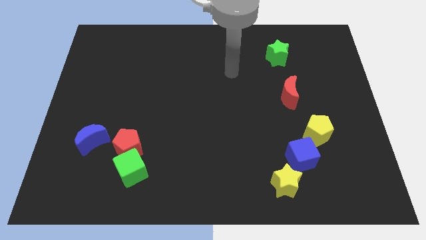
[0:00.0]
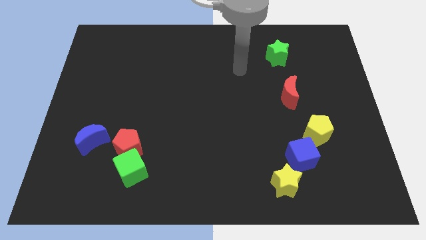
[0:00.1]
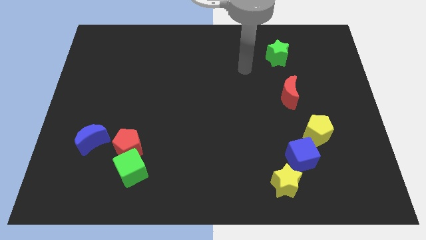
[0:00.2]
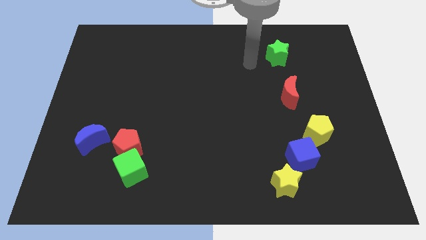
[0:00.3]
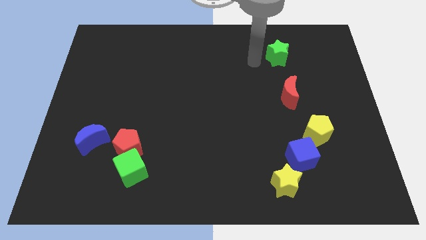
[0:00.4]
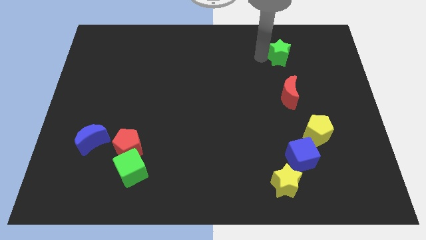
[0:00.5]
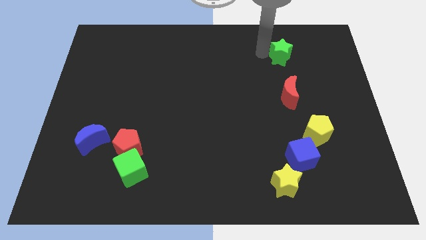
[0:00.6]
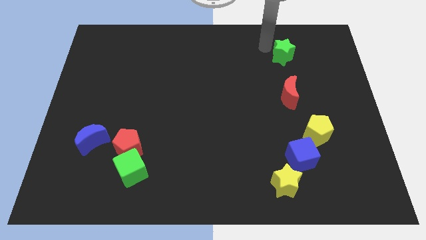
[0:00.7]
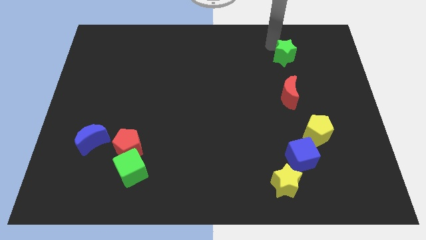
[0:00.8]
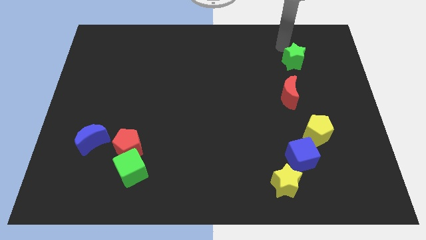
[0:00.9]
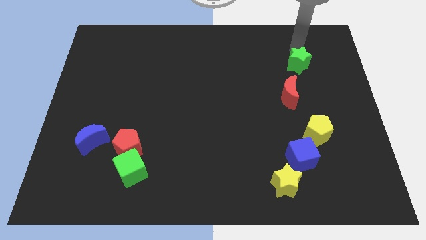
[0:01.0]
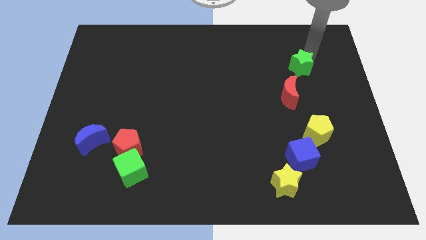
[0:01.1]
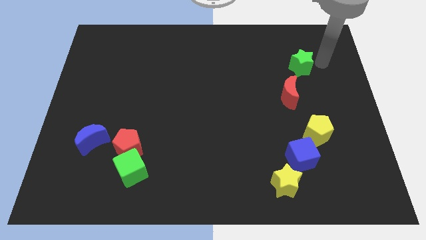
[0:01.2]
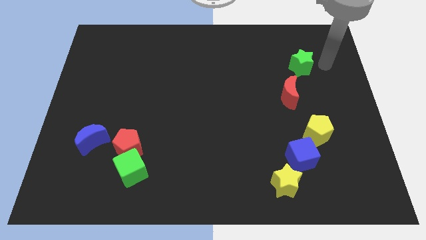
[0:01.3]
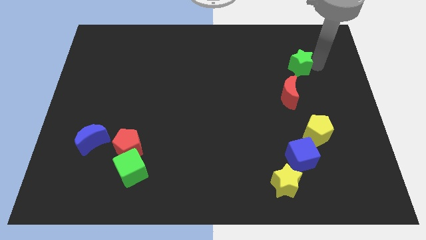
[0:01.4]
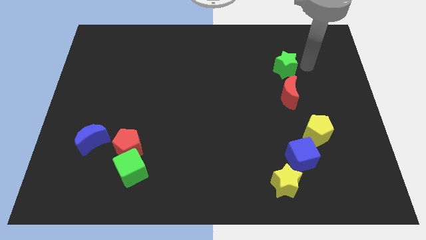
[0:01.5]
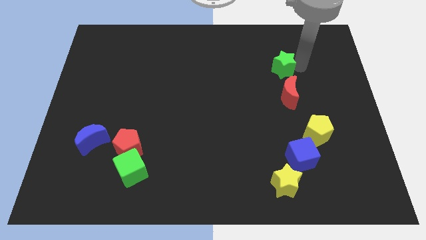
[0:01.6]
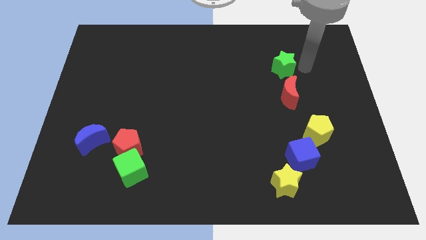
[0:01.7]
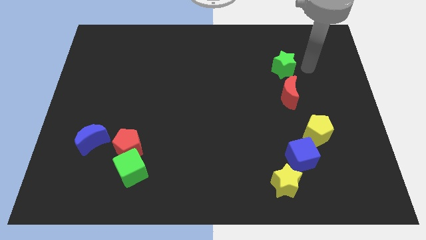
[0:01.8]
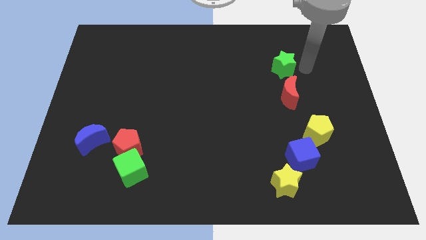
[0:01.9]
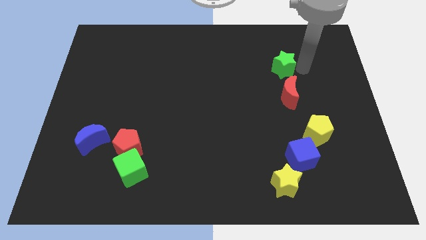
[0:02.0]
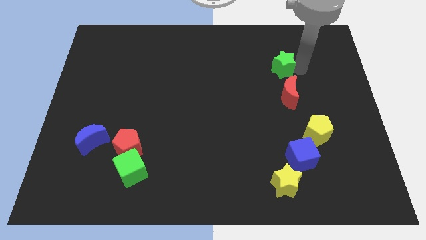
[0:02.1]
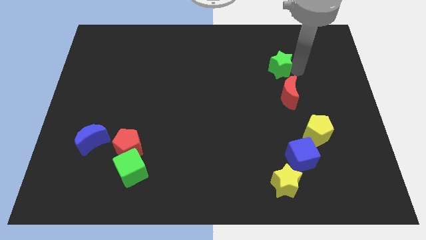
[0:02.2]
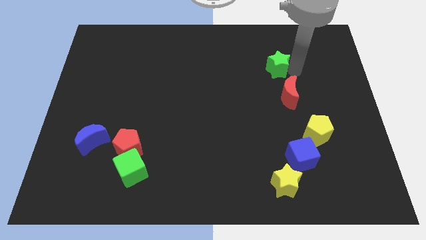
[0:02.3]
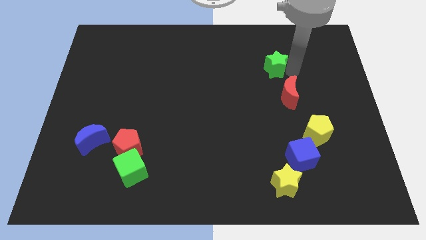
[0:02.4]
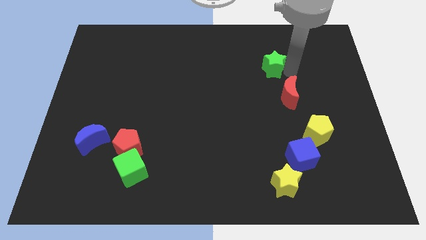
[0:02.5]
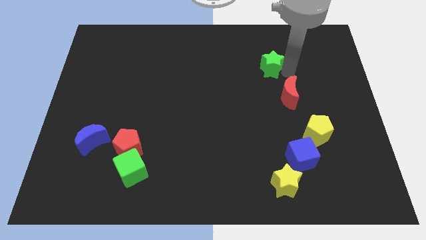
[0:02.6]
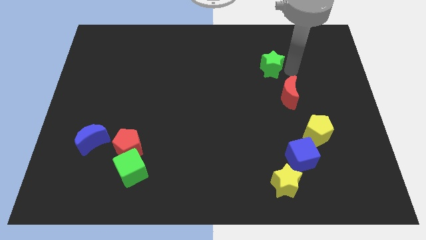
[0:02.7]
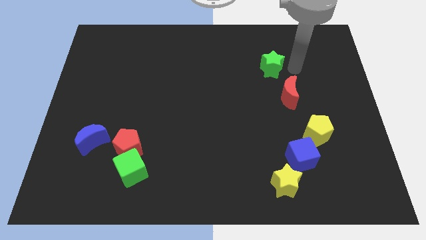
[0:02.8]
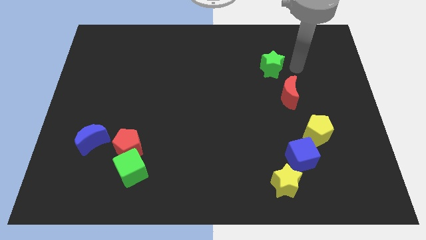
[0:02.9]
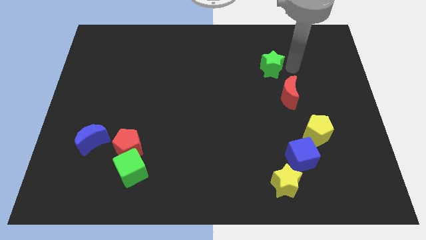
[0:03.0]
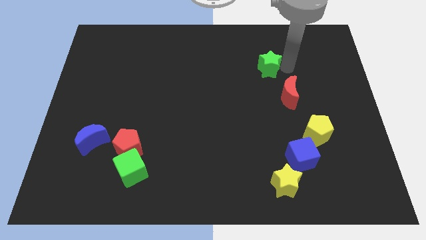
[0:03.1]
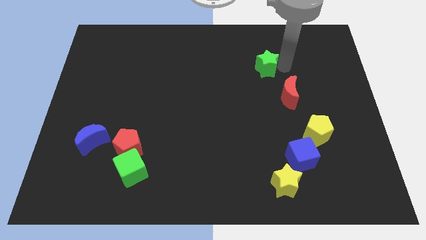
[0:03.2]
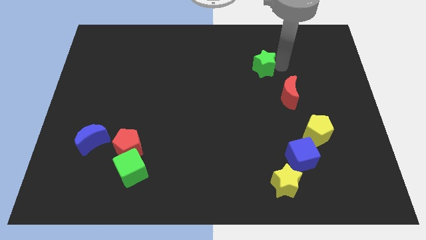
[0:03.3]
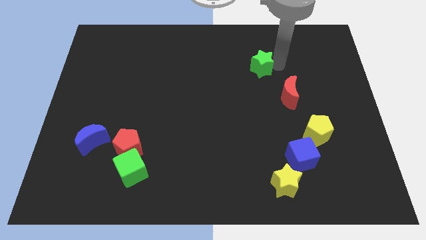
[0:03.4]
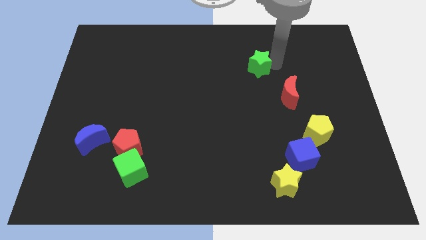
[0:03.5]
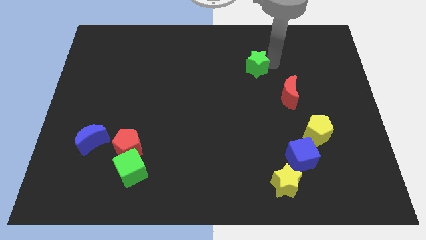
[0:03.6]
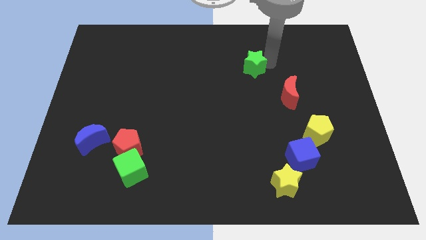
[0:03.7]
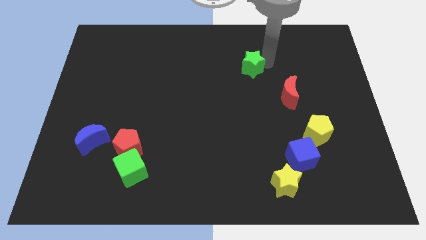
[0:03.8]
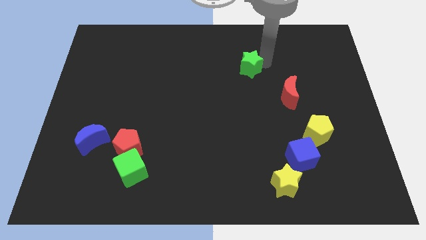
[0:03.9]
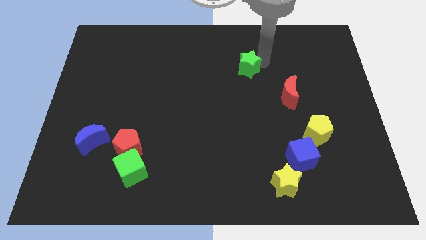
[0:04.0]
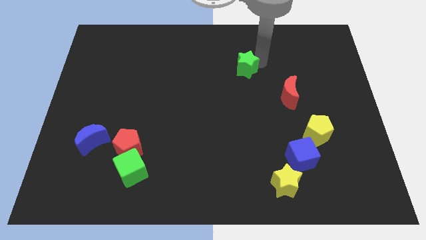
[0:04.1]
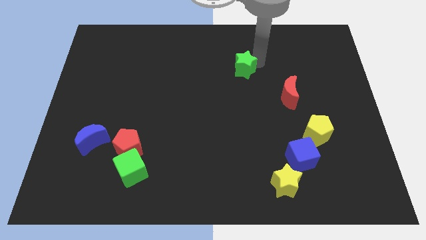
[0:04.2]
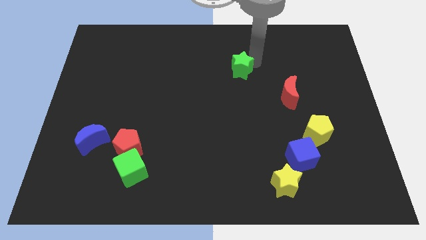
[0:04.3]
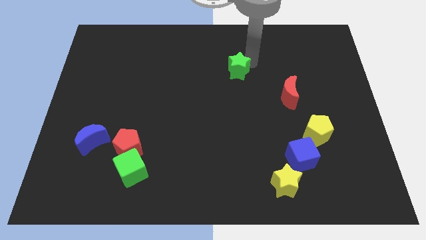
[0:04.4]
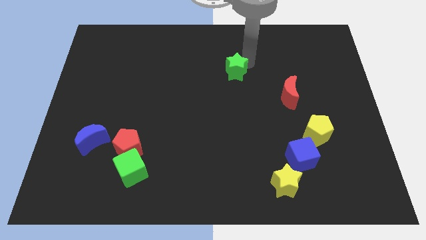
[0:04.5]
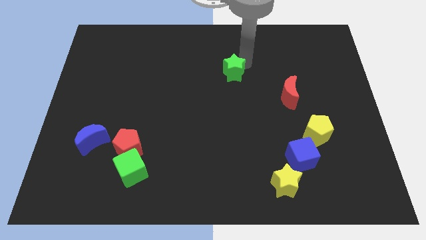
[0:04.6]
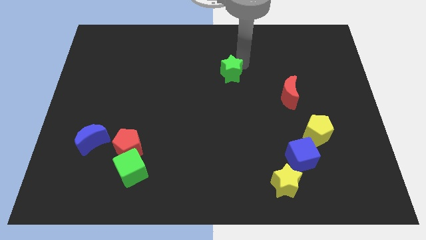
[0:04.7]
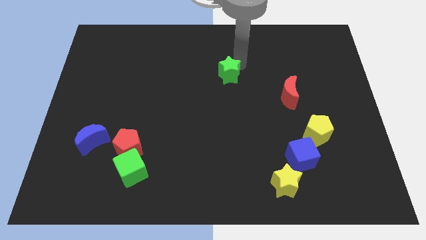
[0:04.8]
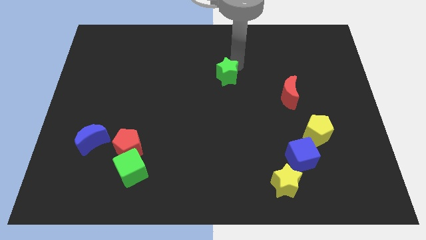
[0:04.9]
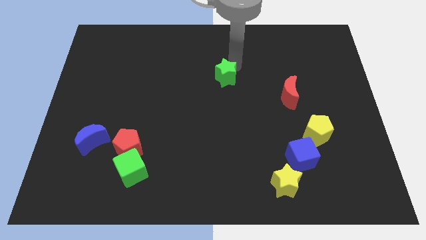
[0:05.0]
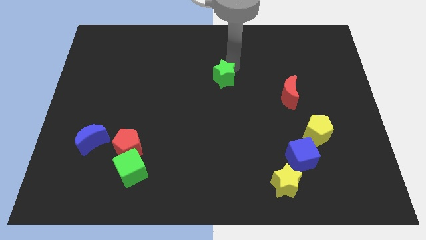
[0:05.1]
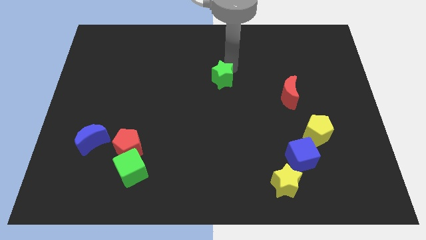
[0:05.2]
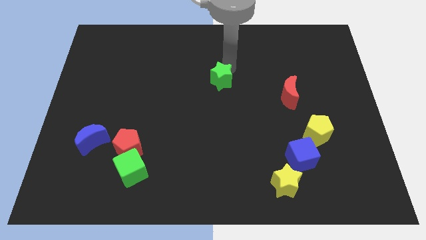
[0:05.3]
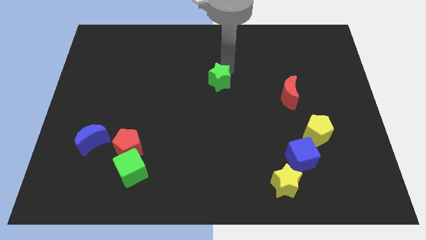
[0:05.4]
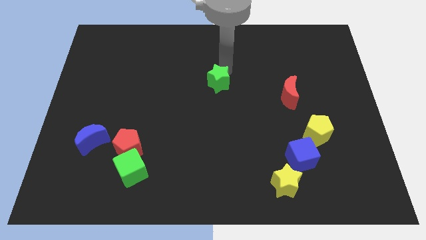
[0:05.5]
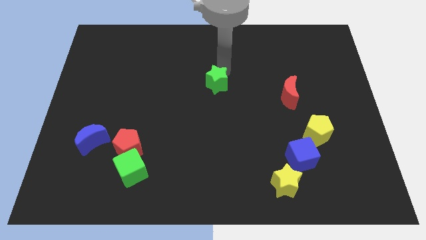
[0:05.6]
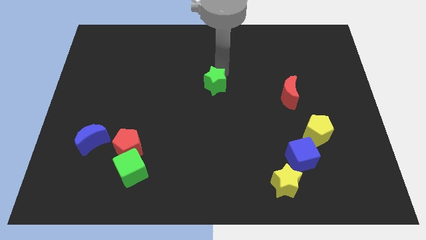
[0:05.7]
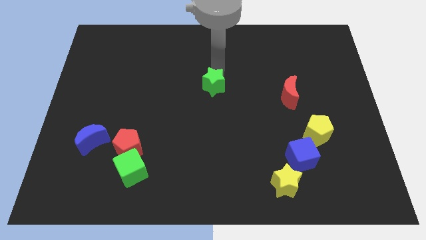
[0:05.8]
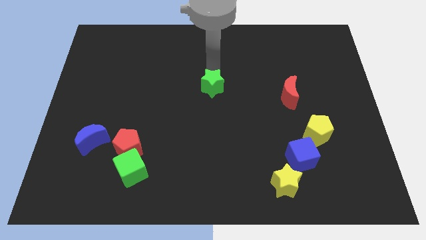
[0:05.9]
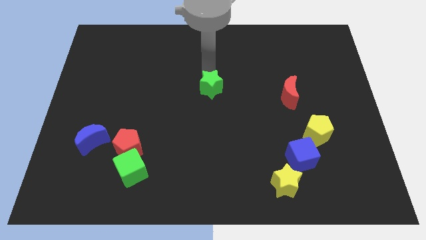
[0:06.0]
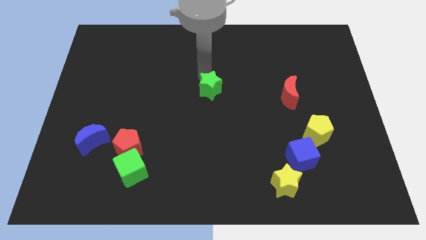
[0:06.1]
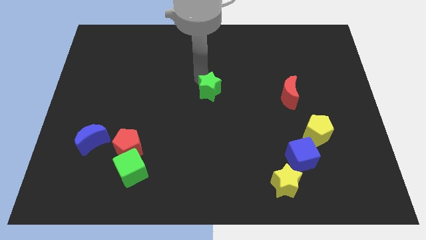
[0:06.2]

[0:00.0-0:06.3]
slide the green star diagonally down and left

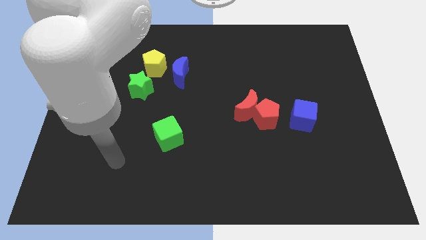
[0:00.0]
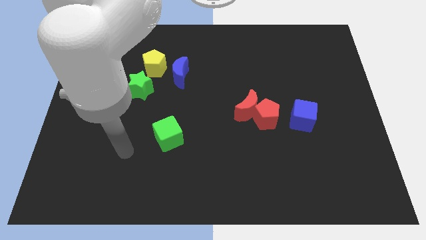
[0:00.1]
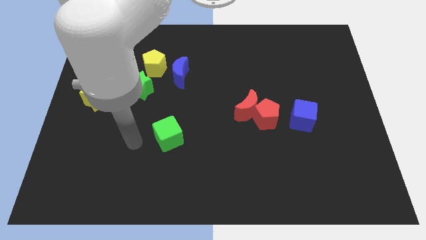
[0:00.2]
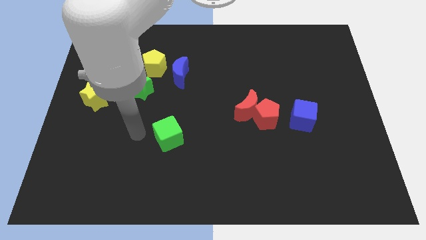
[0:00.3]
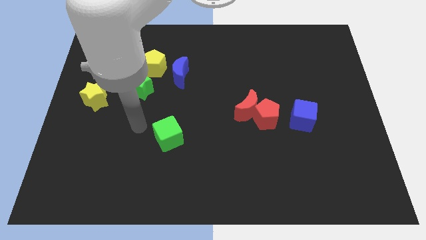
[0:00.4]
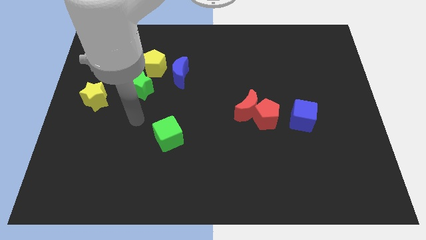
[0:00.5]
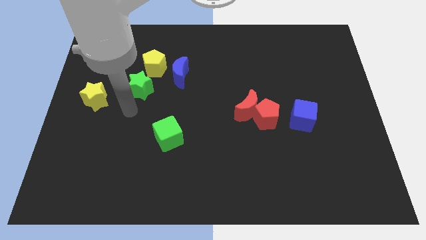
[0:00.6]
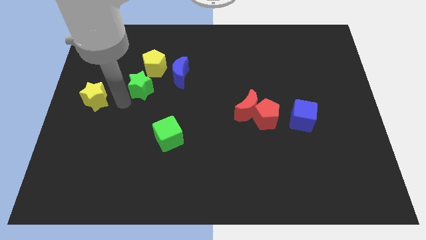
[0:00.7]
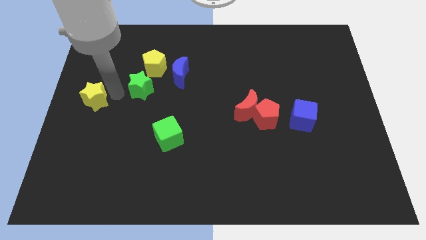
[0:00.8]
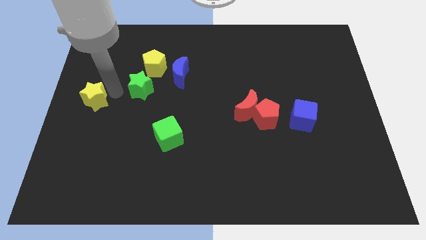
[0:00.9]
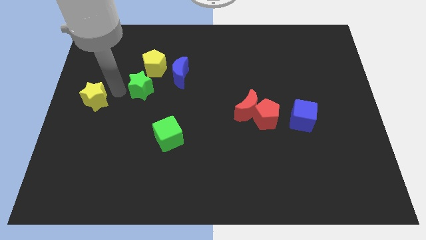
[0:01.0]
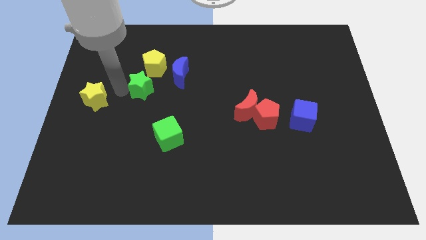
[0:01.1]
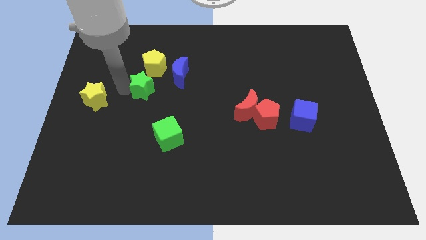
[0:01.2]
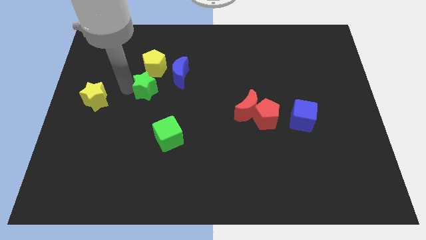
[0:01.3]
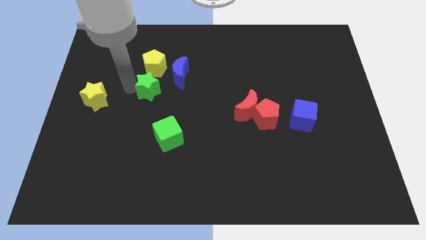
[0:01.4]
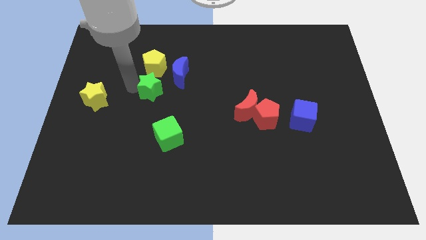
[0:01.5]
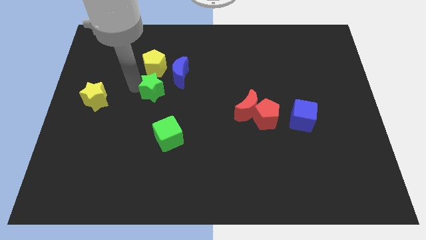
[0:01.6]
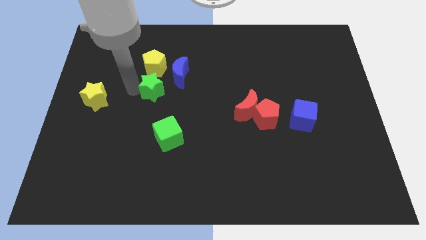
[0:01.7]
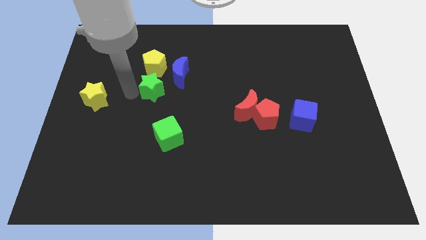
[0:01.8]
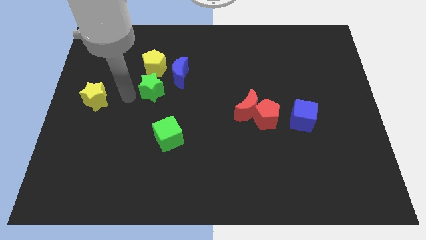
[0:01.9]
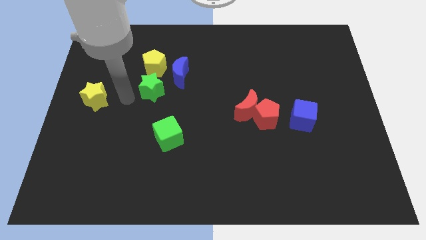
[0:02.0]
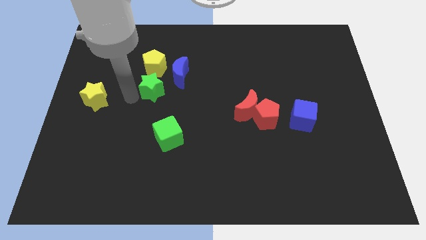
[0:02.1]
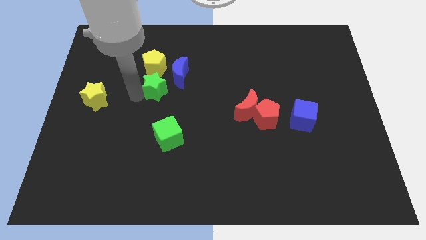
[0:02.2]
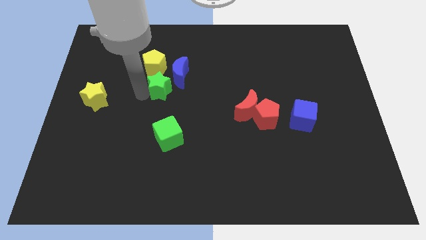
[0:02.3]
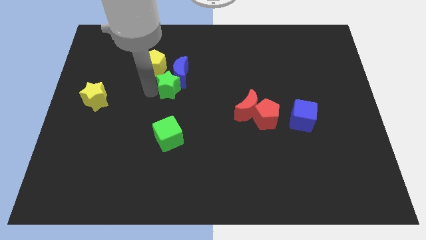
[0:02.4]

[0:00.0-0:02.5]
slide the green star a little right
